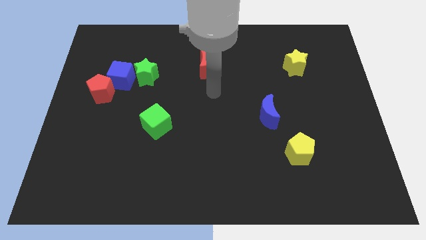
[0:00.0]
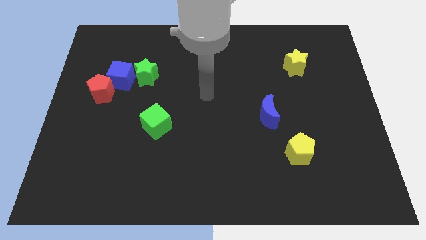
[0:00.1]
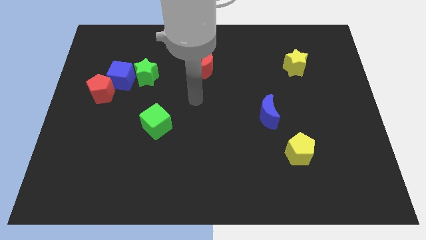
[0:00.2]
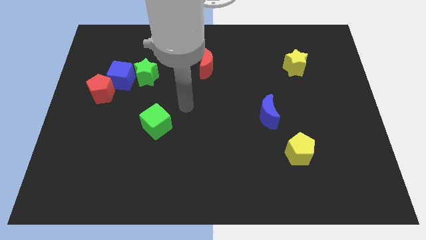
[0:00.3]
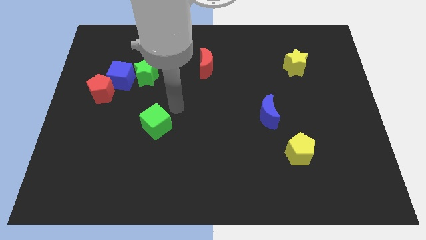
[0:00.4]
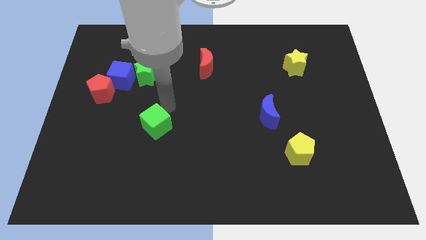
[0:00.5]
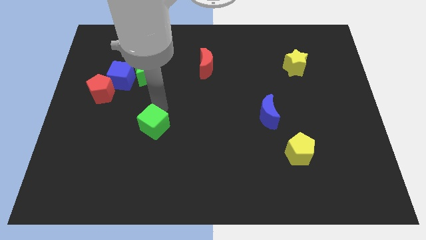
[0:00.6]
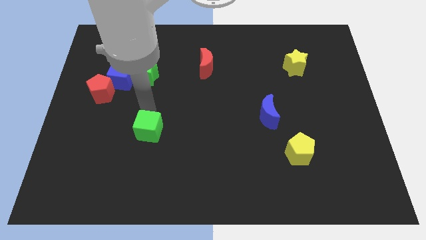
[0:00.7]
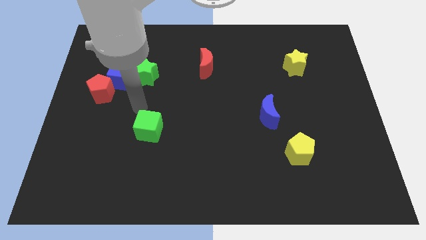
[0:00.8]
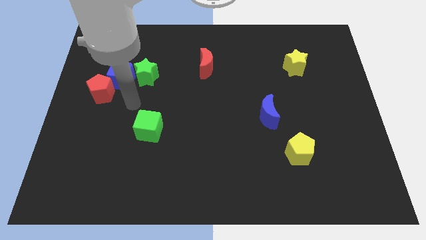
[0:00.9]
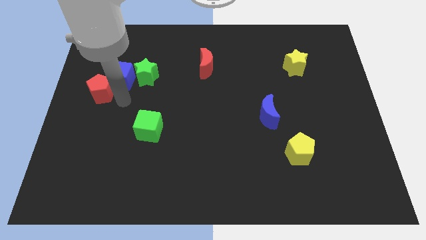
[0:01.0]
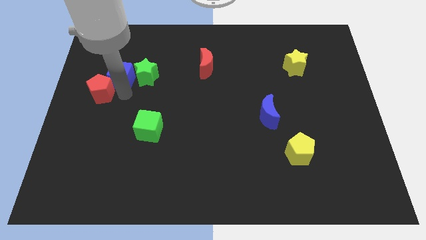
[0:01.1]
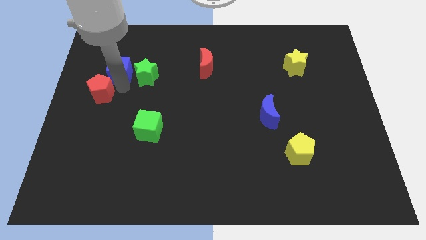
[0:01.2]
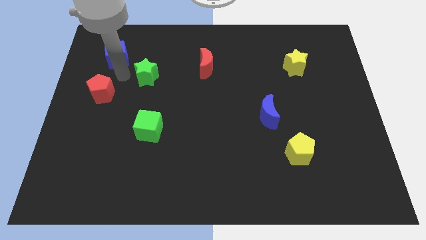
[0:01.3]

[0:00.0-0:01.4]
pull the green star apart from the blue cube

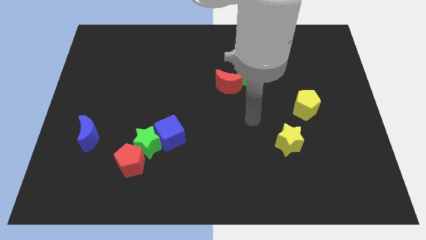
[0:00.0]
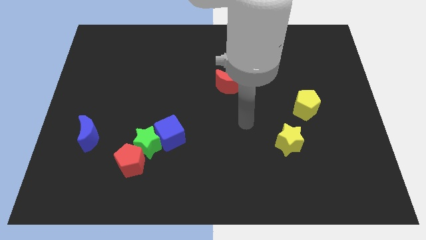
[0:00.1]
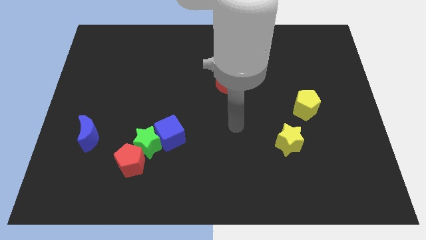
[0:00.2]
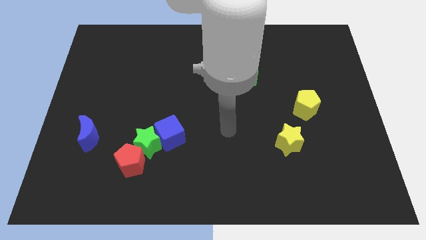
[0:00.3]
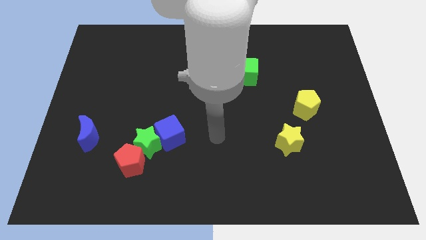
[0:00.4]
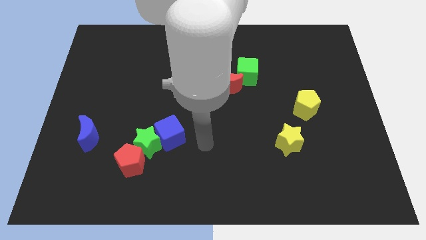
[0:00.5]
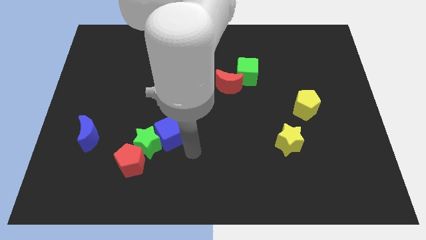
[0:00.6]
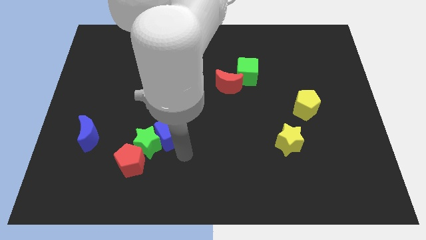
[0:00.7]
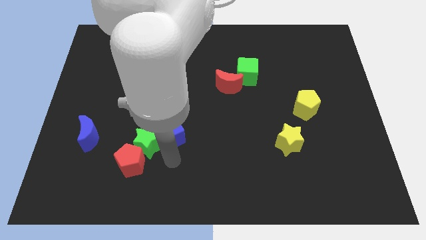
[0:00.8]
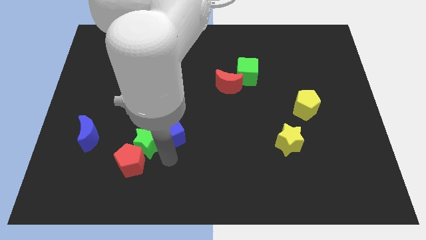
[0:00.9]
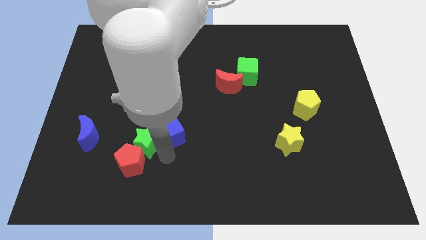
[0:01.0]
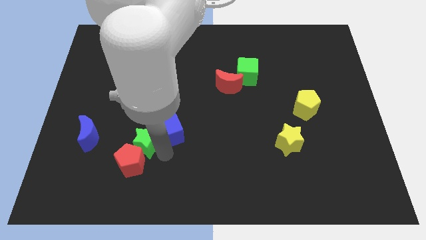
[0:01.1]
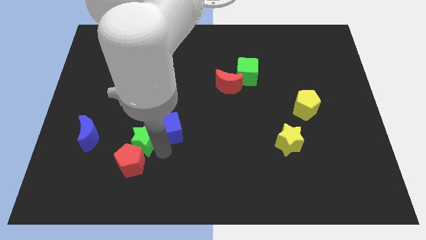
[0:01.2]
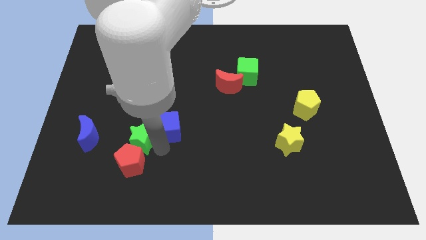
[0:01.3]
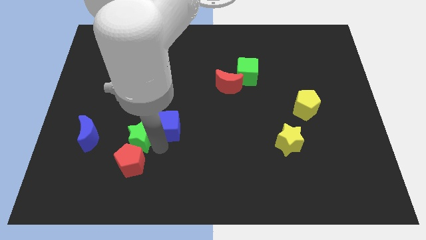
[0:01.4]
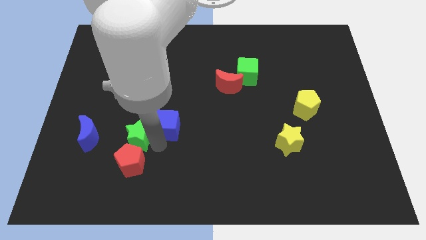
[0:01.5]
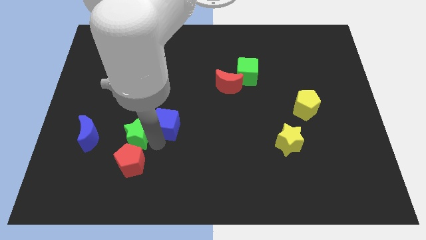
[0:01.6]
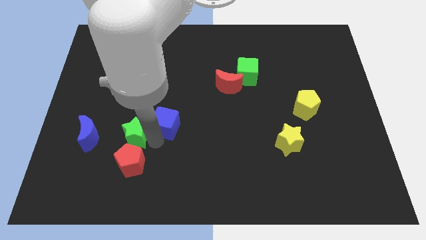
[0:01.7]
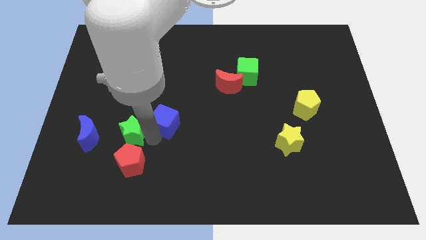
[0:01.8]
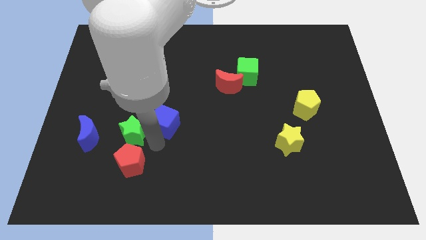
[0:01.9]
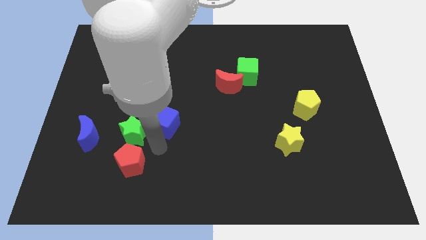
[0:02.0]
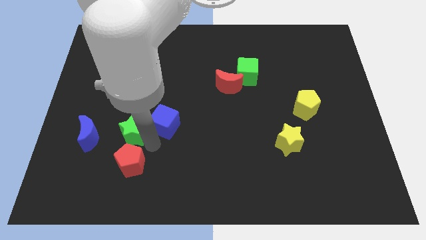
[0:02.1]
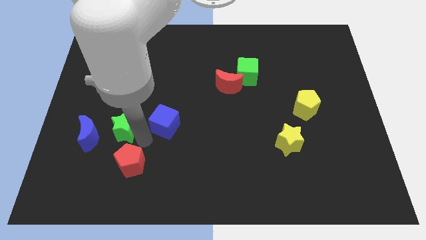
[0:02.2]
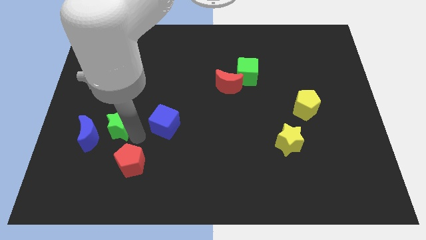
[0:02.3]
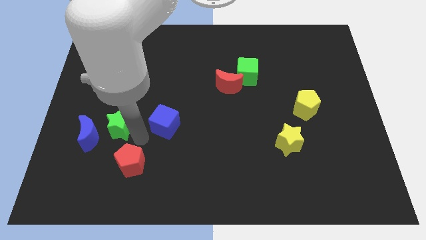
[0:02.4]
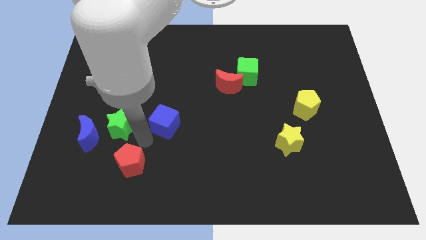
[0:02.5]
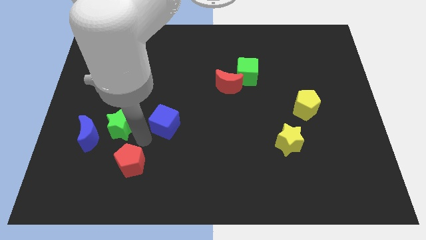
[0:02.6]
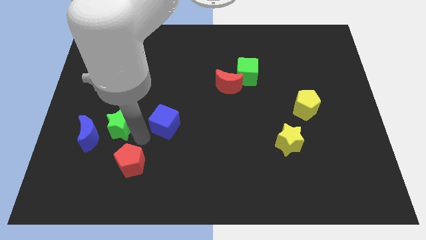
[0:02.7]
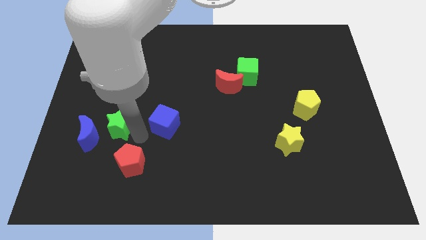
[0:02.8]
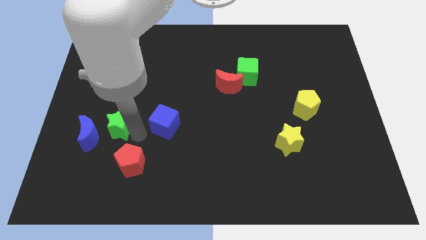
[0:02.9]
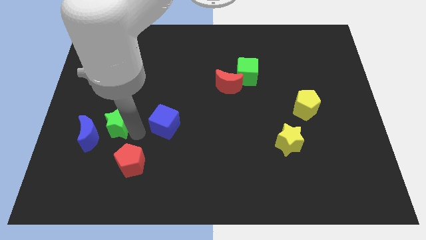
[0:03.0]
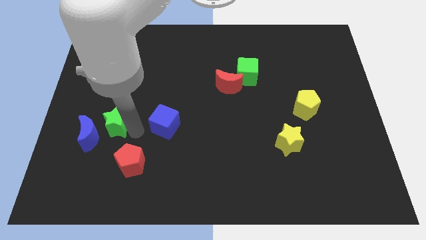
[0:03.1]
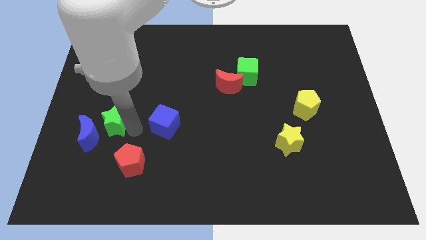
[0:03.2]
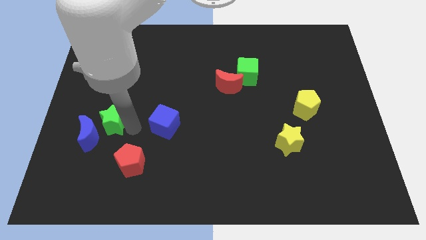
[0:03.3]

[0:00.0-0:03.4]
separate the green star from the red pentagon and blue cube

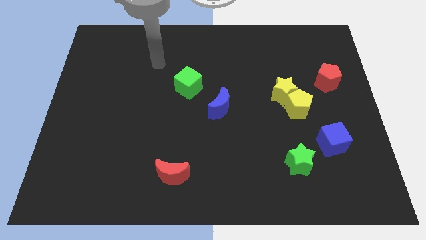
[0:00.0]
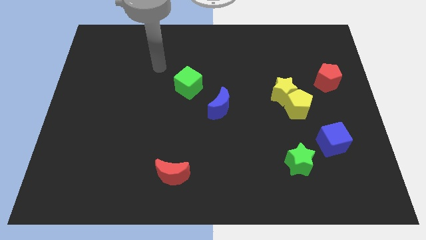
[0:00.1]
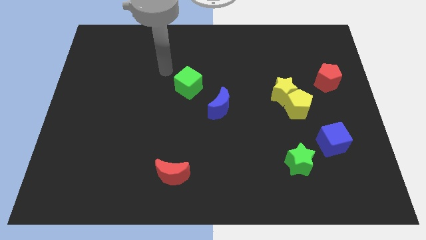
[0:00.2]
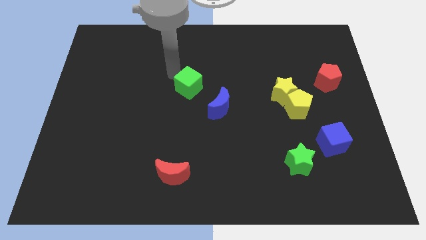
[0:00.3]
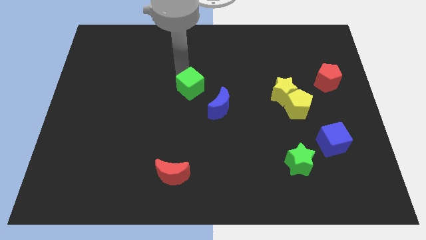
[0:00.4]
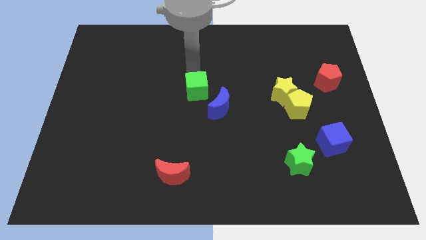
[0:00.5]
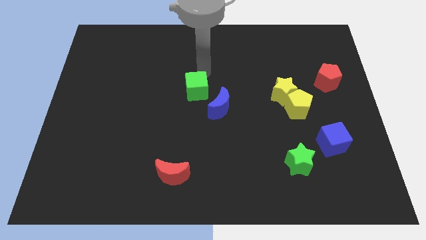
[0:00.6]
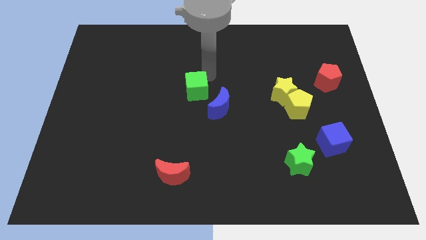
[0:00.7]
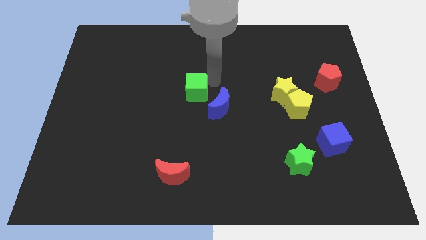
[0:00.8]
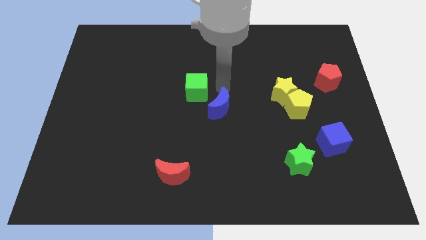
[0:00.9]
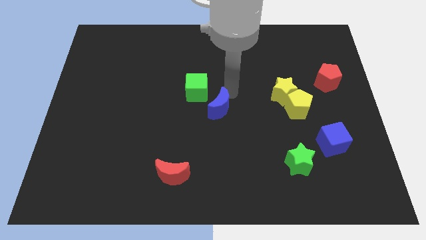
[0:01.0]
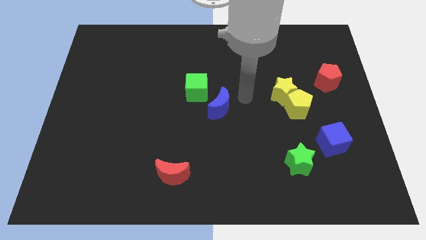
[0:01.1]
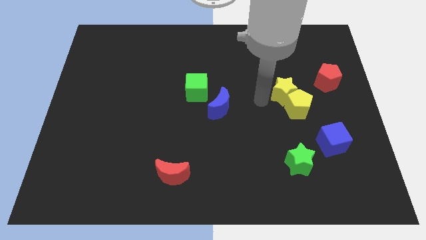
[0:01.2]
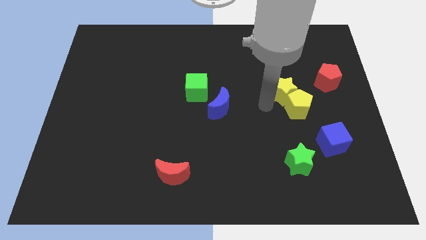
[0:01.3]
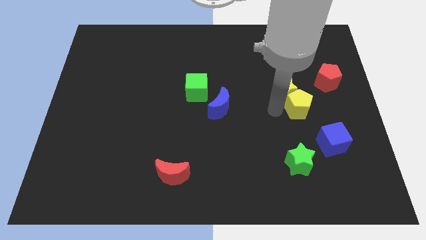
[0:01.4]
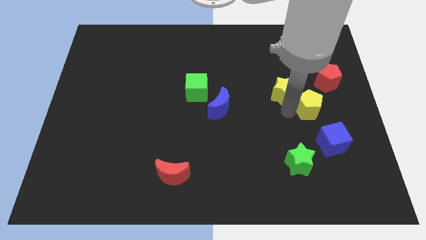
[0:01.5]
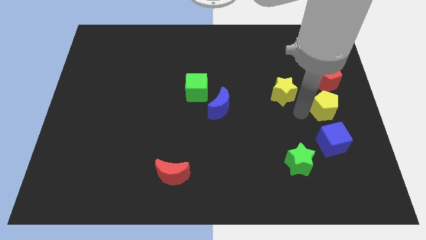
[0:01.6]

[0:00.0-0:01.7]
separate the yellow star from the yellow pentagon

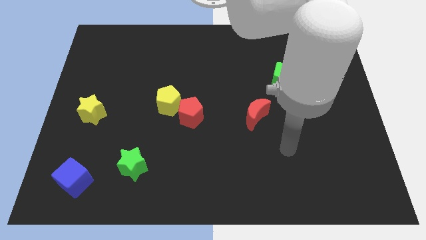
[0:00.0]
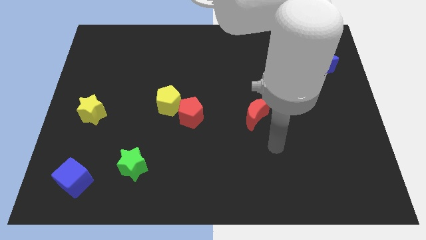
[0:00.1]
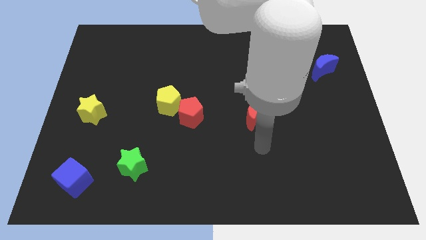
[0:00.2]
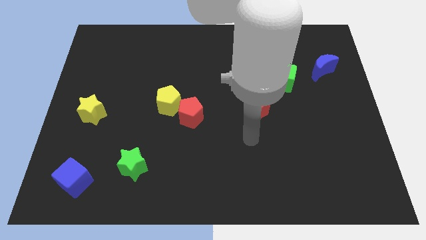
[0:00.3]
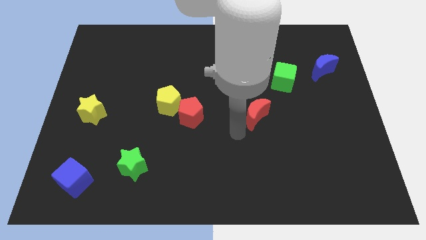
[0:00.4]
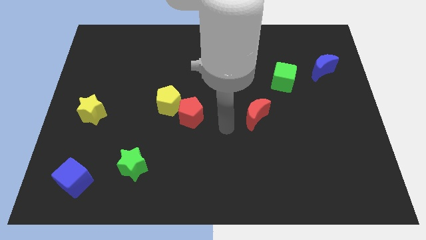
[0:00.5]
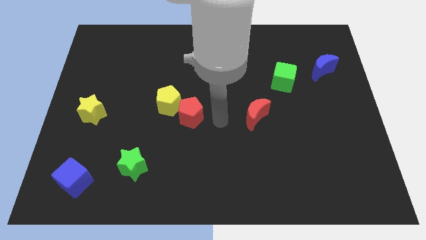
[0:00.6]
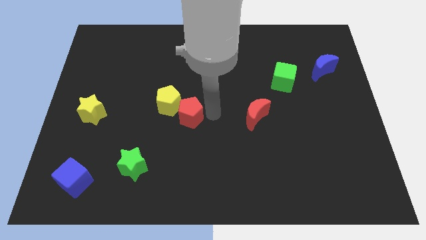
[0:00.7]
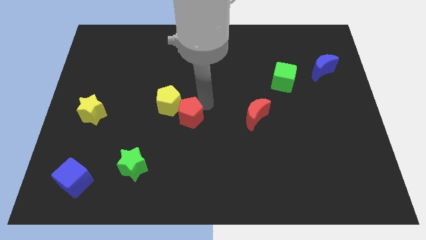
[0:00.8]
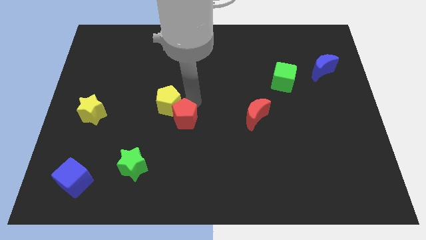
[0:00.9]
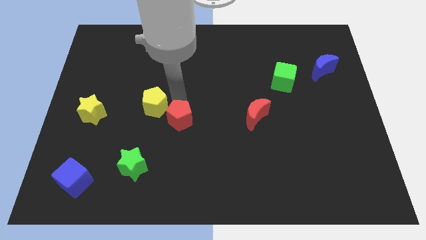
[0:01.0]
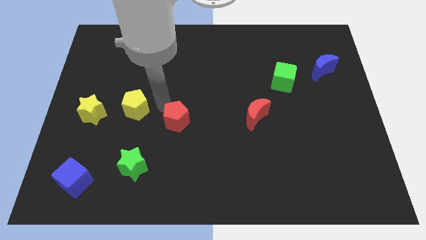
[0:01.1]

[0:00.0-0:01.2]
separate the red pentagon from the yellow pentagon

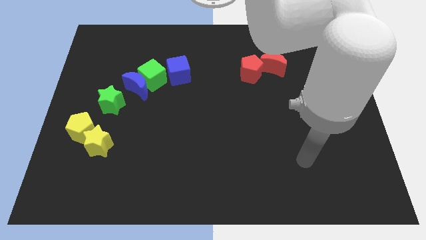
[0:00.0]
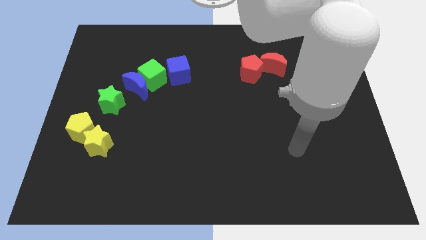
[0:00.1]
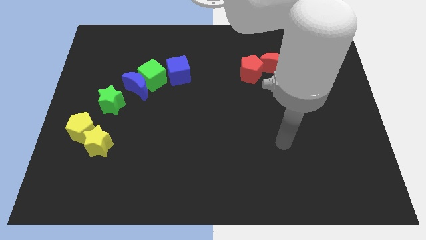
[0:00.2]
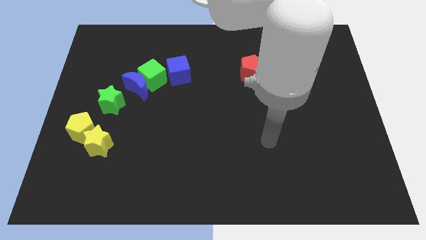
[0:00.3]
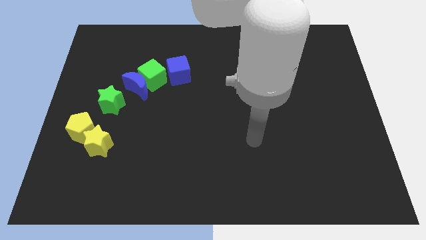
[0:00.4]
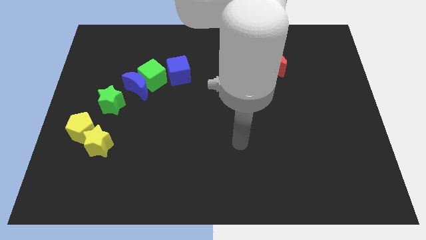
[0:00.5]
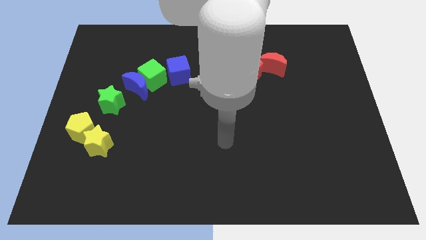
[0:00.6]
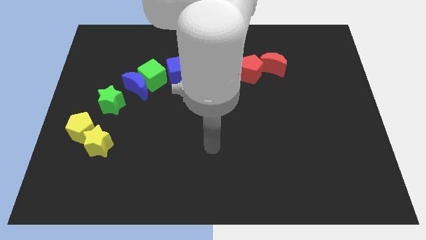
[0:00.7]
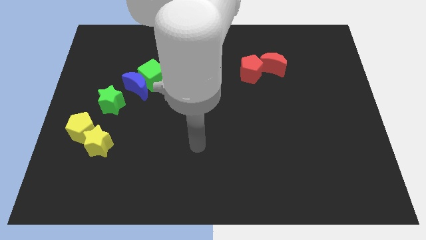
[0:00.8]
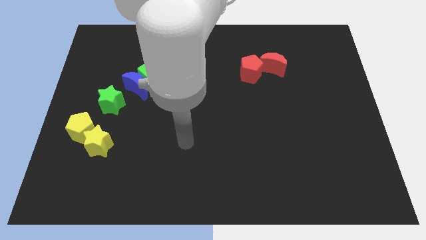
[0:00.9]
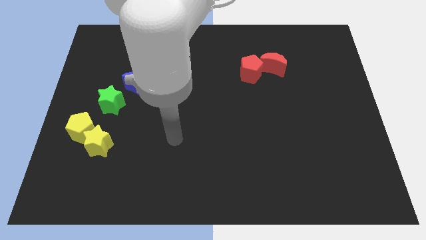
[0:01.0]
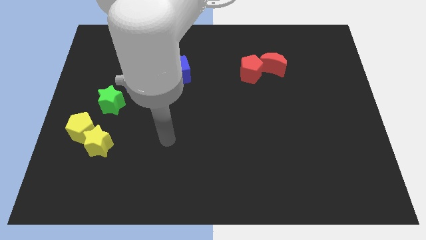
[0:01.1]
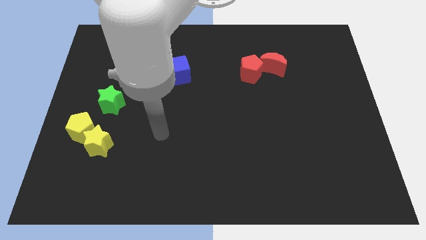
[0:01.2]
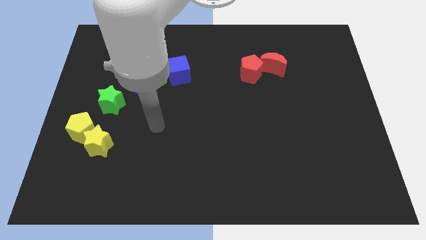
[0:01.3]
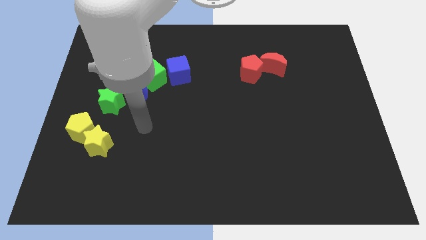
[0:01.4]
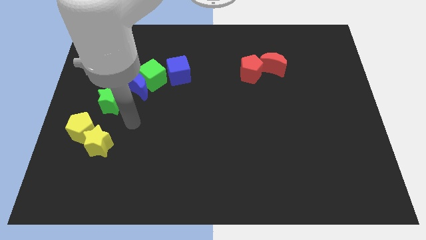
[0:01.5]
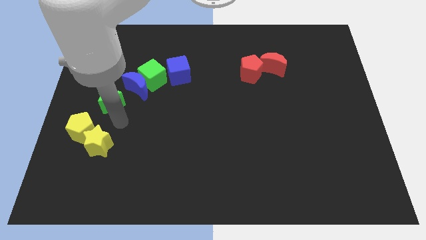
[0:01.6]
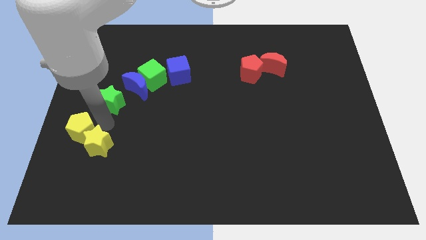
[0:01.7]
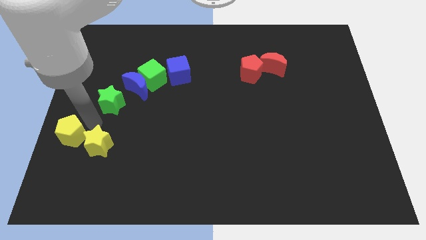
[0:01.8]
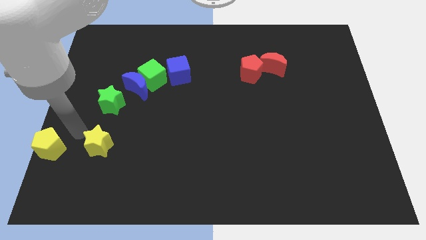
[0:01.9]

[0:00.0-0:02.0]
move the yellow star away from the yellow pentagon
